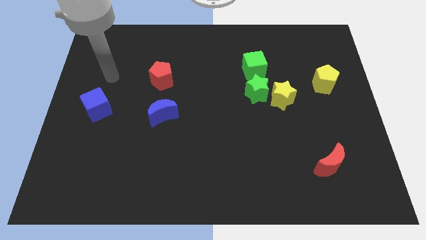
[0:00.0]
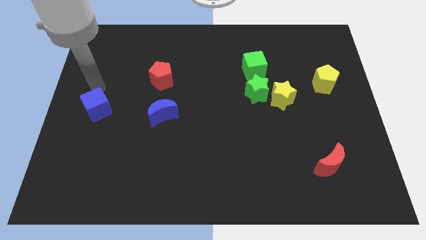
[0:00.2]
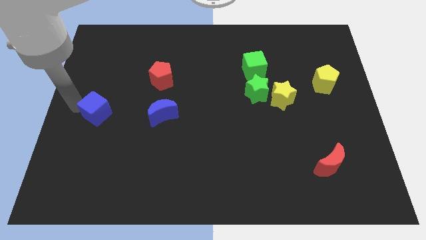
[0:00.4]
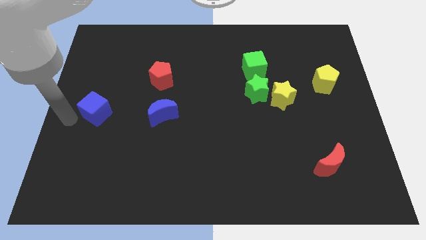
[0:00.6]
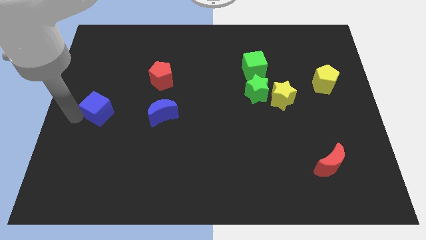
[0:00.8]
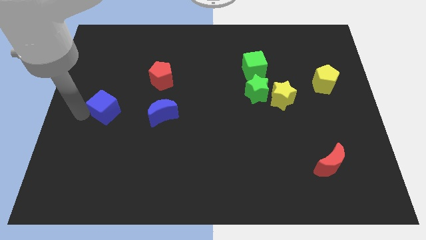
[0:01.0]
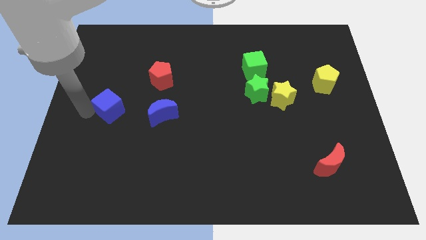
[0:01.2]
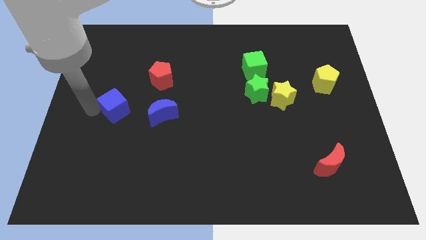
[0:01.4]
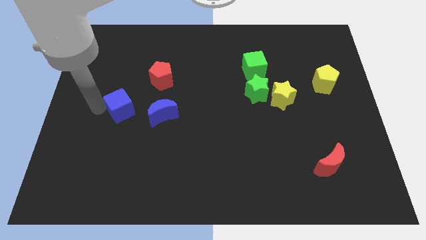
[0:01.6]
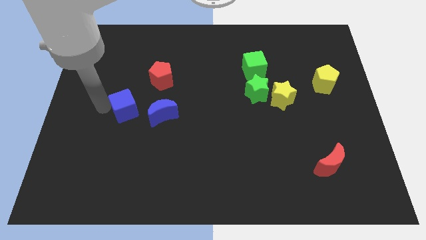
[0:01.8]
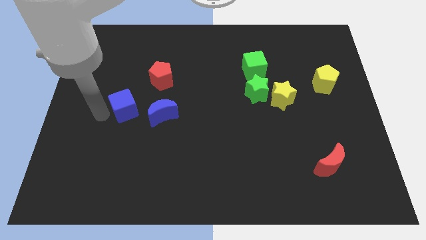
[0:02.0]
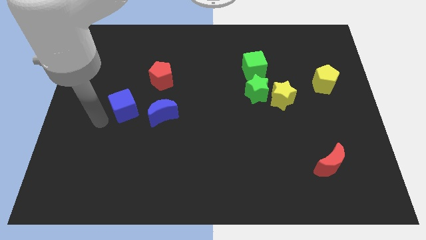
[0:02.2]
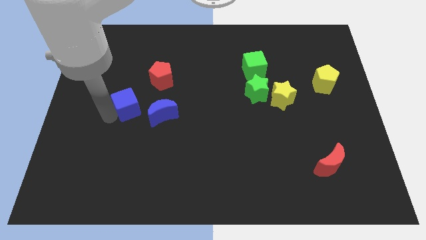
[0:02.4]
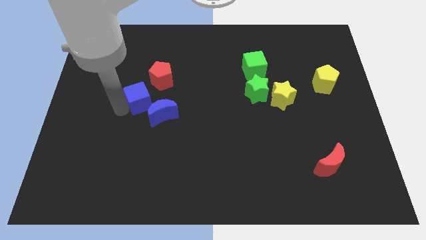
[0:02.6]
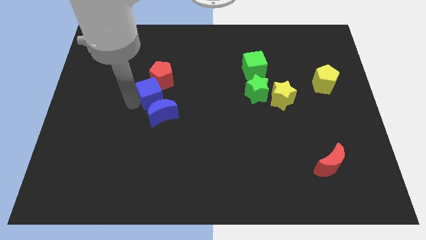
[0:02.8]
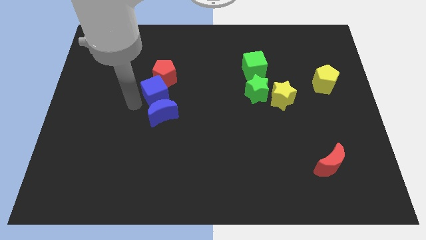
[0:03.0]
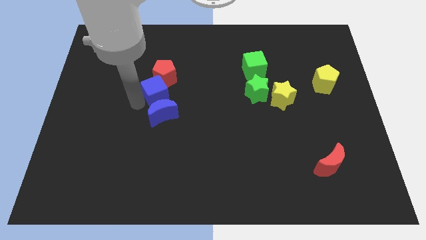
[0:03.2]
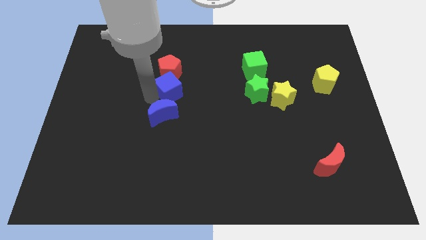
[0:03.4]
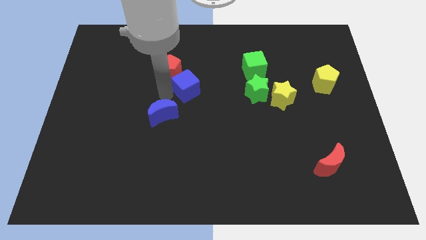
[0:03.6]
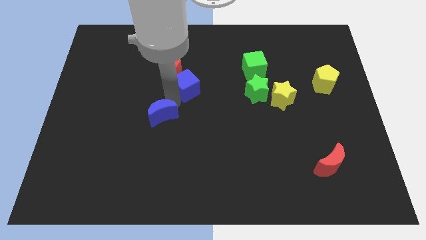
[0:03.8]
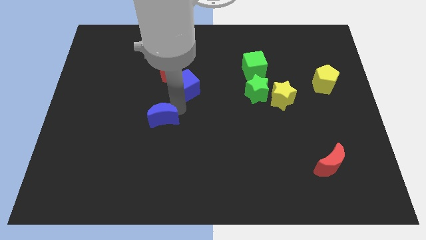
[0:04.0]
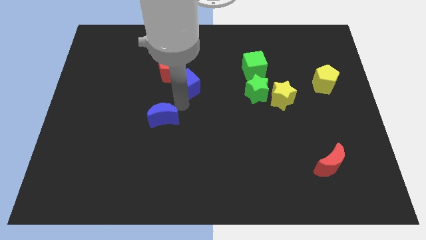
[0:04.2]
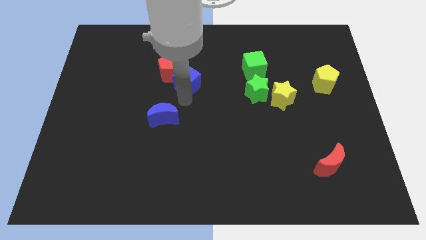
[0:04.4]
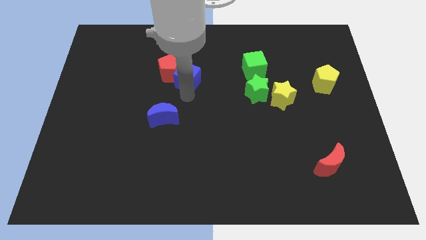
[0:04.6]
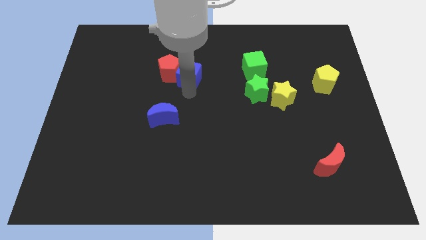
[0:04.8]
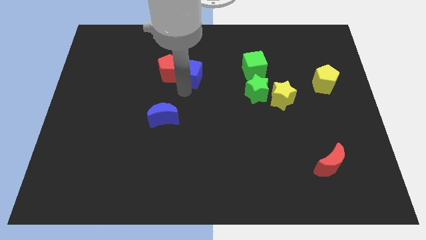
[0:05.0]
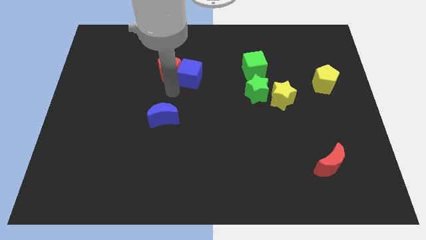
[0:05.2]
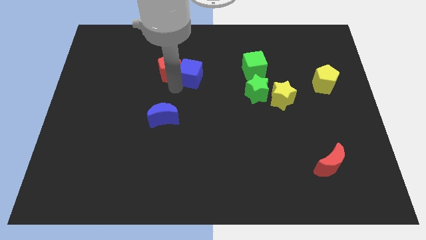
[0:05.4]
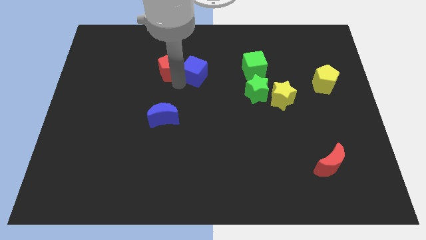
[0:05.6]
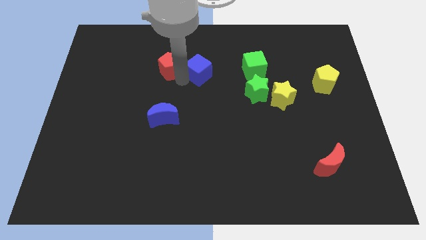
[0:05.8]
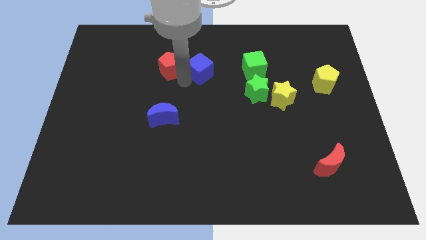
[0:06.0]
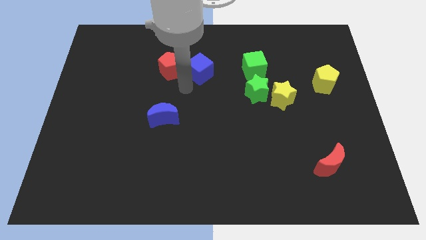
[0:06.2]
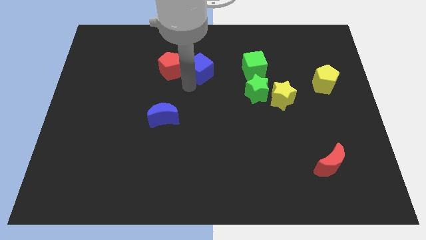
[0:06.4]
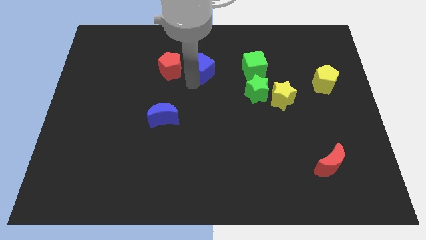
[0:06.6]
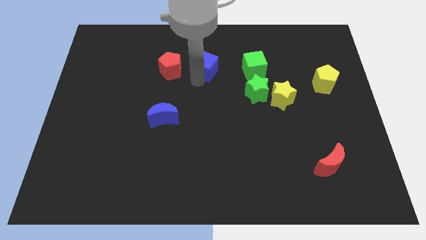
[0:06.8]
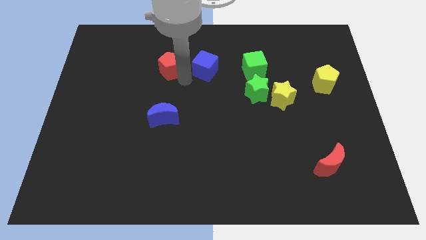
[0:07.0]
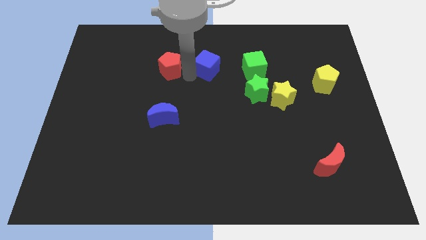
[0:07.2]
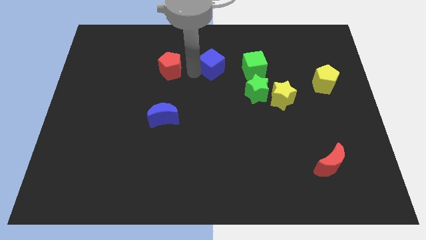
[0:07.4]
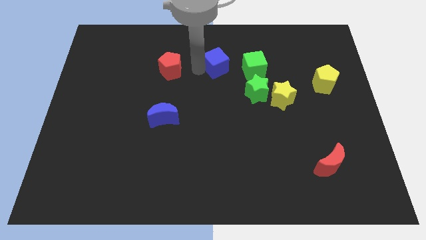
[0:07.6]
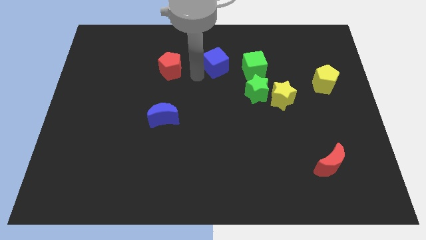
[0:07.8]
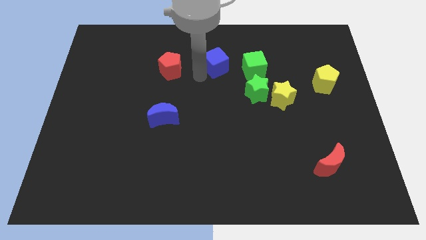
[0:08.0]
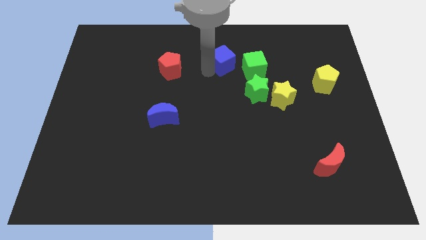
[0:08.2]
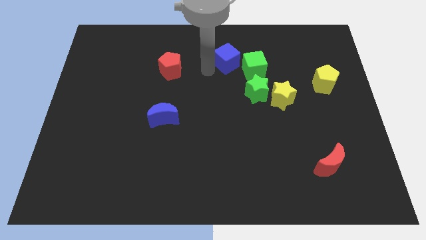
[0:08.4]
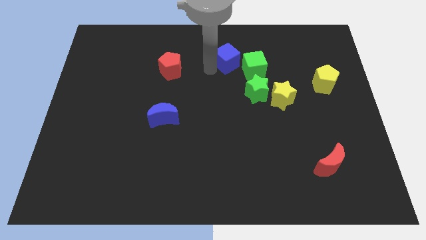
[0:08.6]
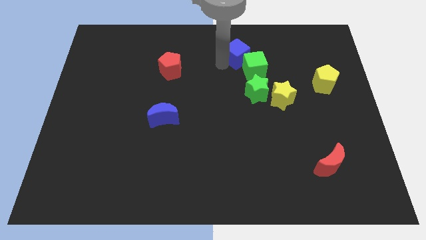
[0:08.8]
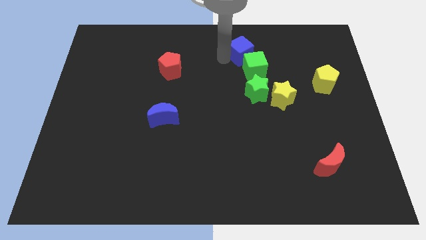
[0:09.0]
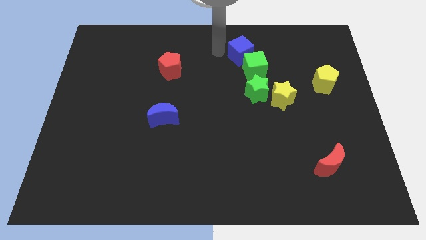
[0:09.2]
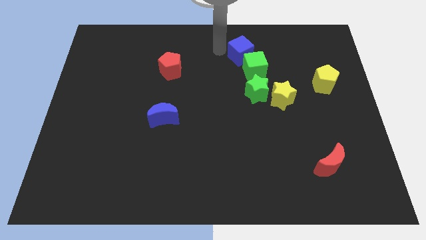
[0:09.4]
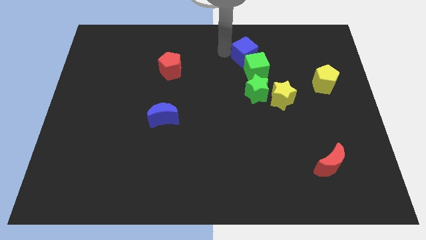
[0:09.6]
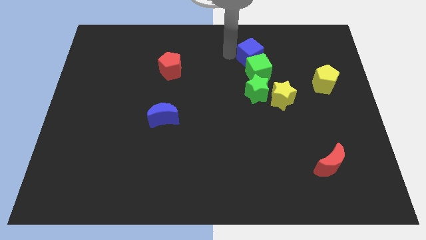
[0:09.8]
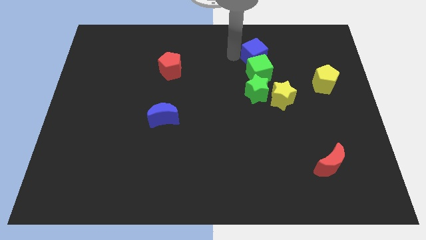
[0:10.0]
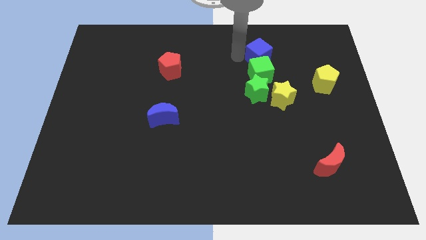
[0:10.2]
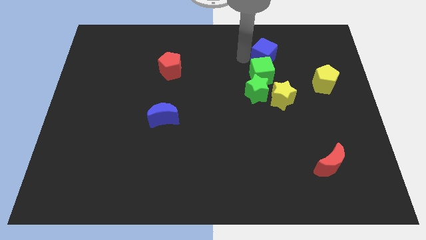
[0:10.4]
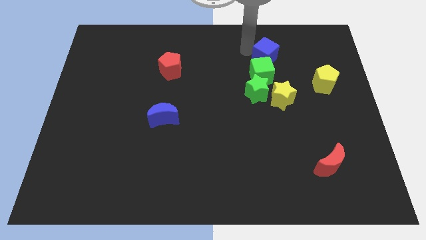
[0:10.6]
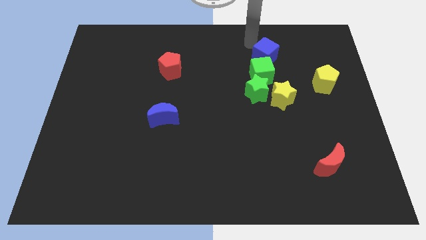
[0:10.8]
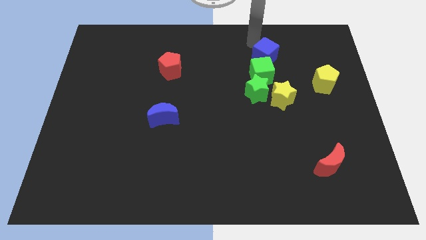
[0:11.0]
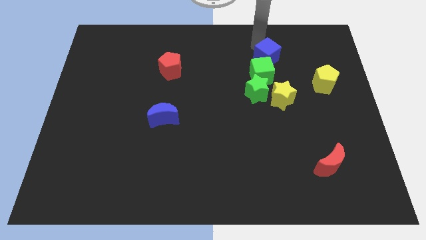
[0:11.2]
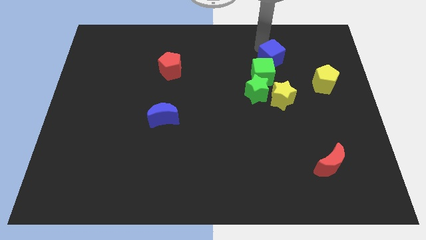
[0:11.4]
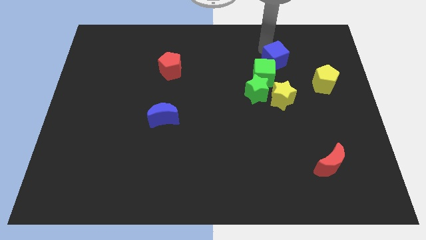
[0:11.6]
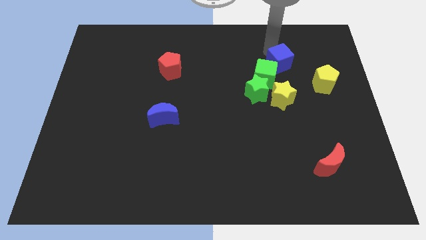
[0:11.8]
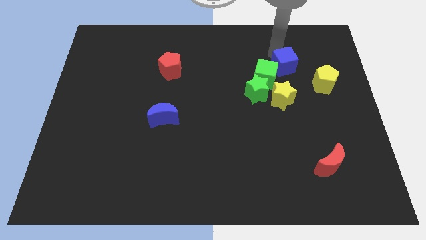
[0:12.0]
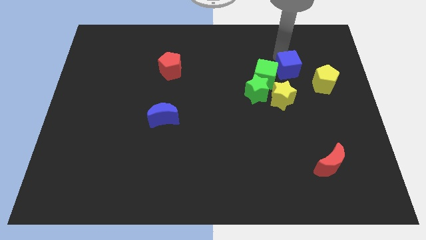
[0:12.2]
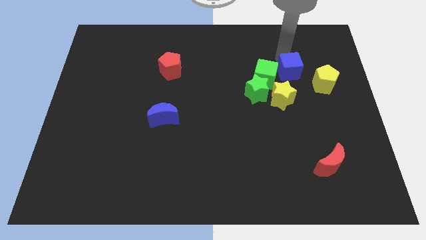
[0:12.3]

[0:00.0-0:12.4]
move the blue cube just left of the yellow pentagon

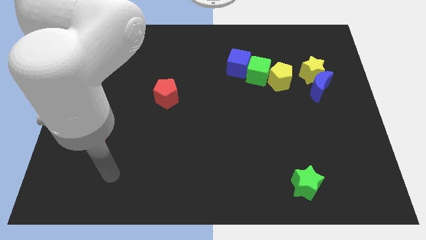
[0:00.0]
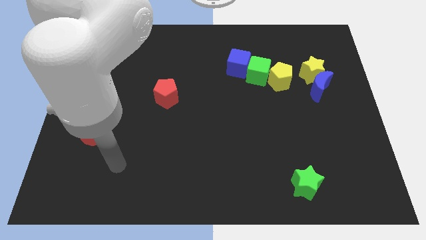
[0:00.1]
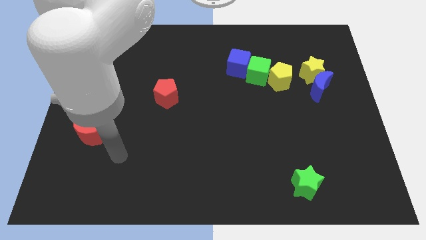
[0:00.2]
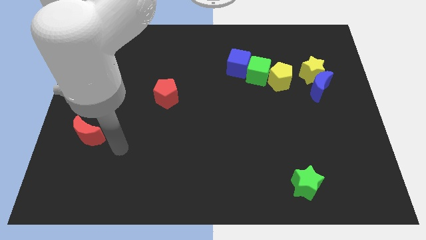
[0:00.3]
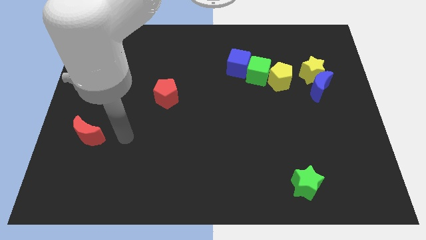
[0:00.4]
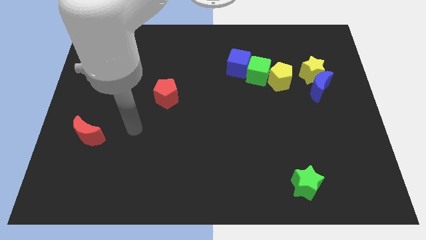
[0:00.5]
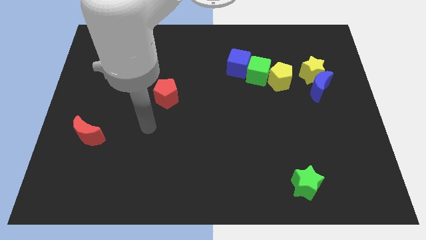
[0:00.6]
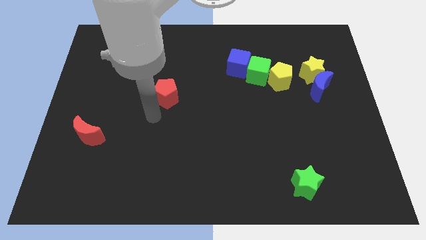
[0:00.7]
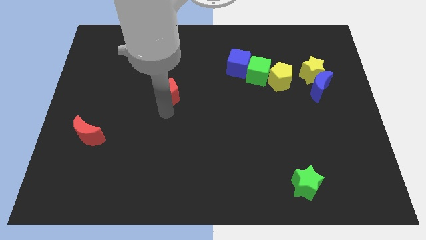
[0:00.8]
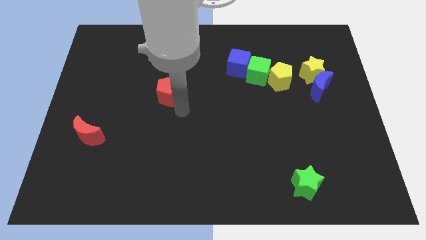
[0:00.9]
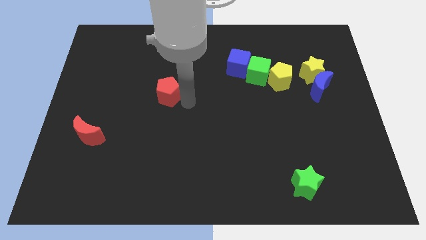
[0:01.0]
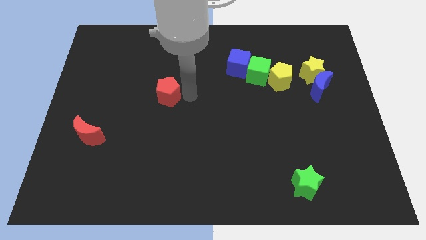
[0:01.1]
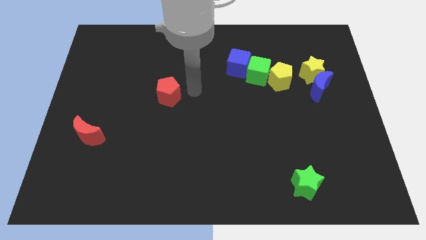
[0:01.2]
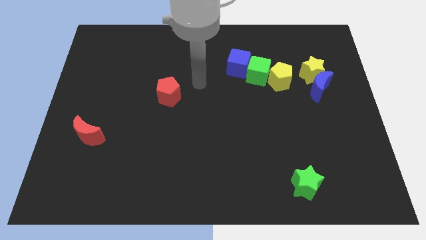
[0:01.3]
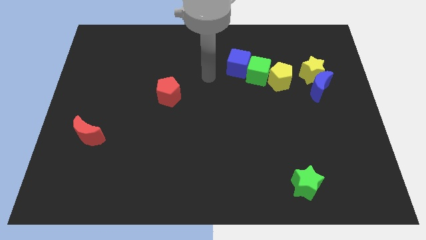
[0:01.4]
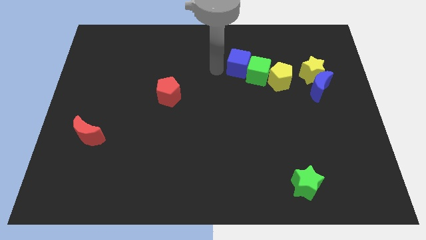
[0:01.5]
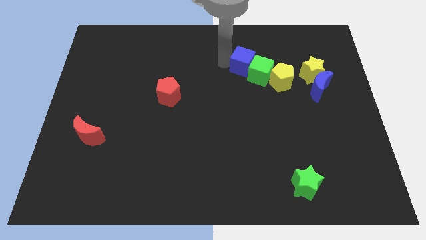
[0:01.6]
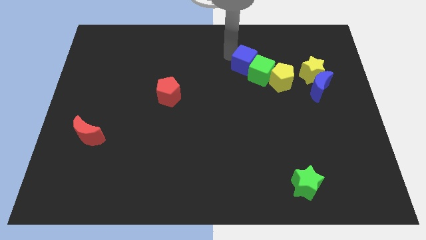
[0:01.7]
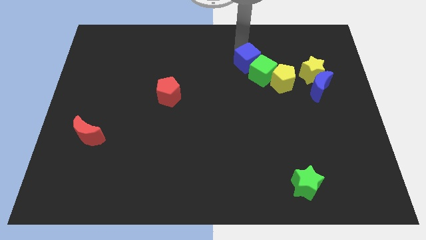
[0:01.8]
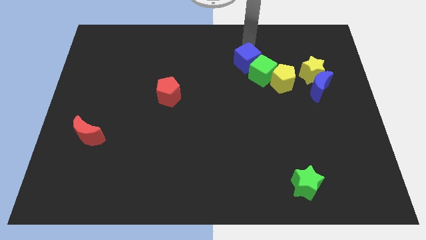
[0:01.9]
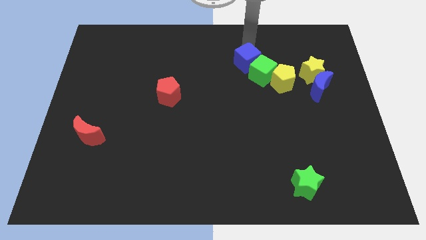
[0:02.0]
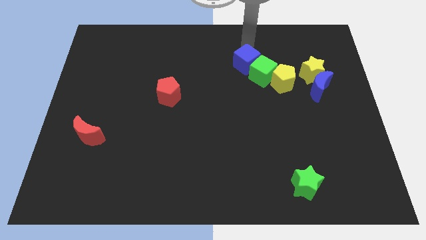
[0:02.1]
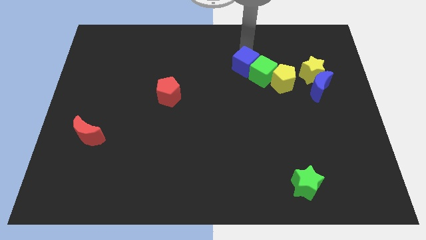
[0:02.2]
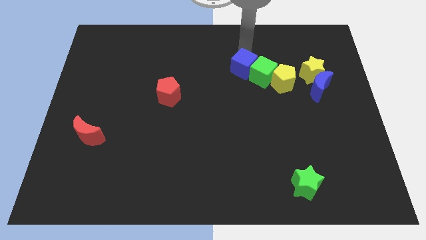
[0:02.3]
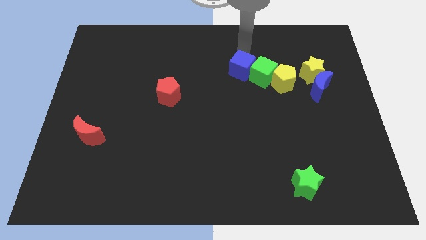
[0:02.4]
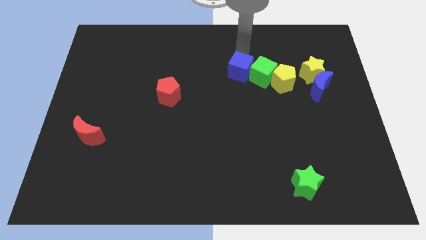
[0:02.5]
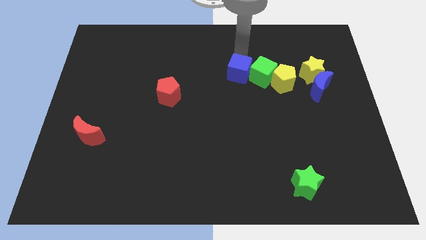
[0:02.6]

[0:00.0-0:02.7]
slide the blue cube diagonally down and to the left of the green cube
